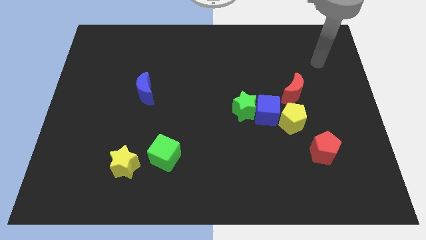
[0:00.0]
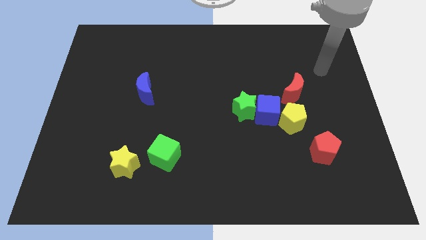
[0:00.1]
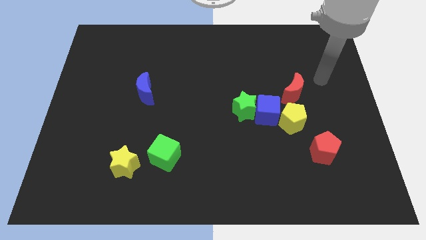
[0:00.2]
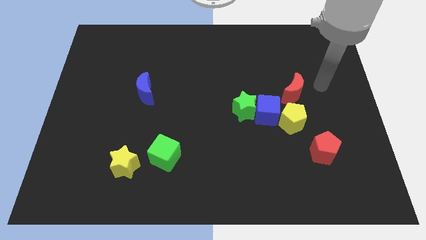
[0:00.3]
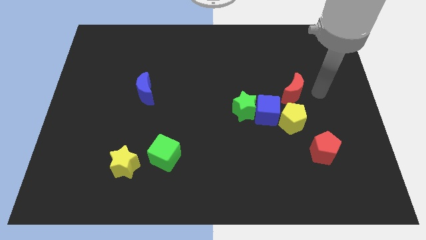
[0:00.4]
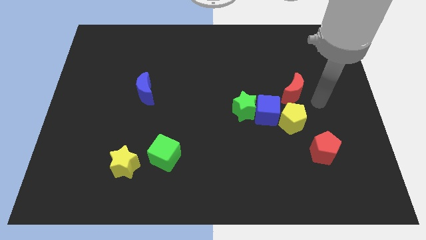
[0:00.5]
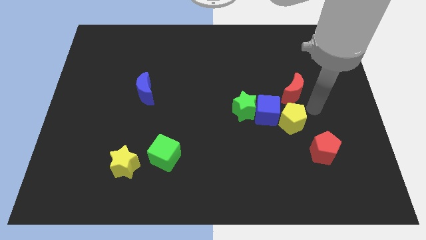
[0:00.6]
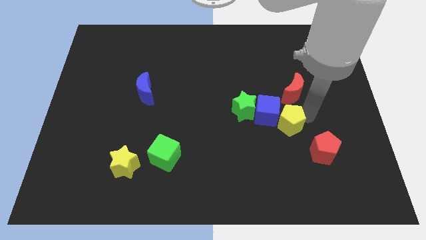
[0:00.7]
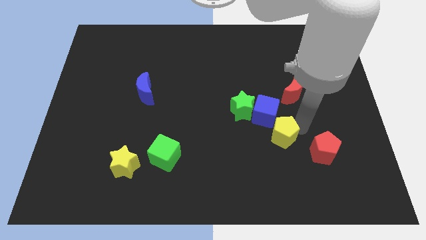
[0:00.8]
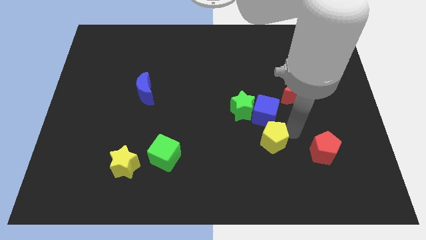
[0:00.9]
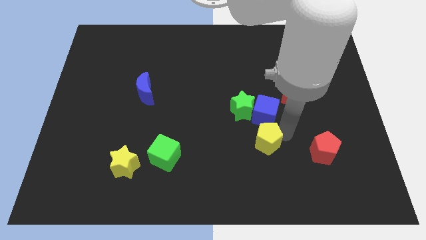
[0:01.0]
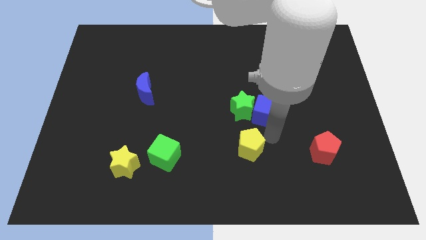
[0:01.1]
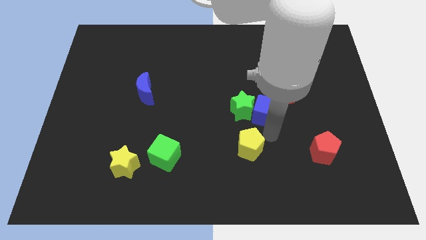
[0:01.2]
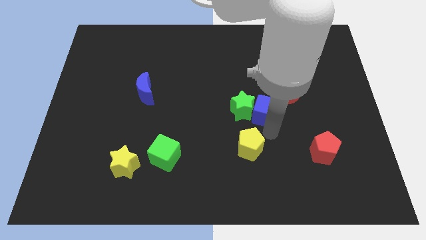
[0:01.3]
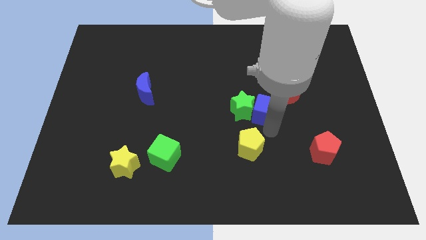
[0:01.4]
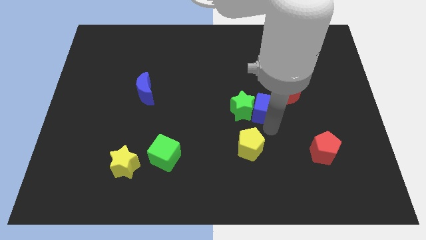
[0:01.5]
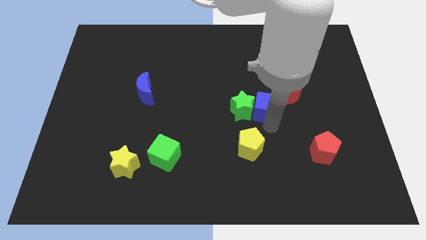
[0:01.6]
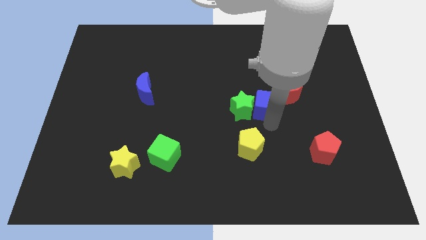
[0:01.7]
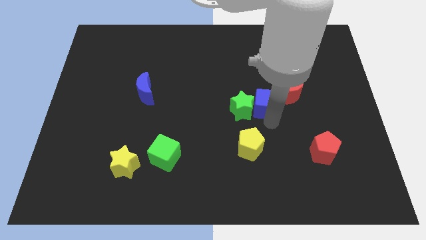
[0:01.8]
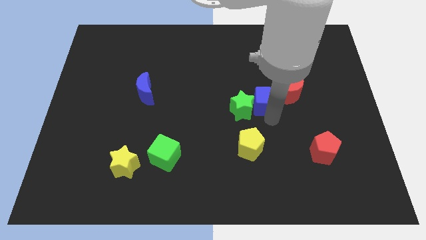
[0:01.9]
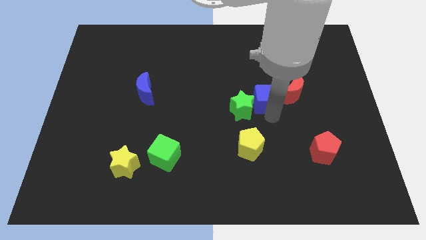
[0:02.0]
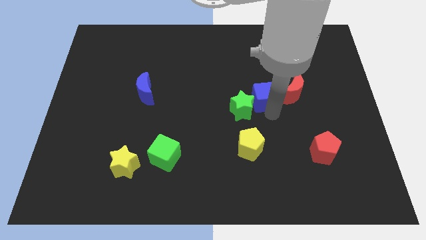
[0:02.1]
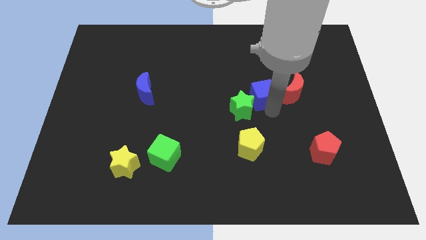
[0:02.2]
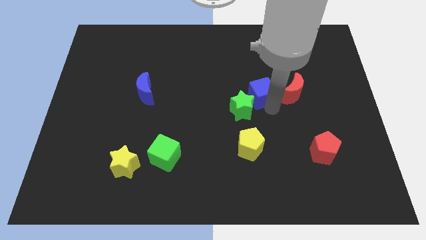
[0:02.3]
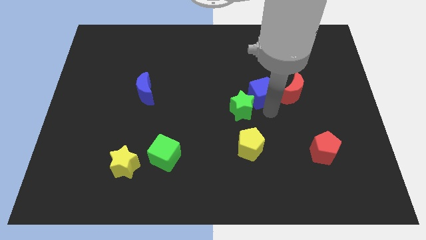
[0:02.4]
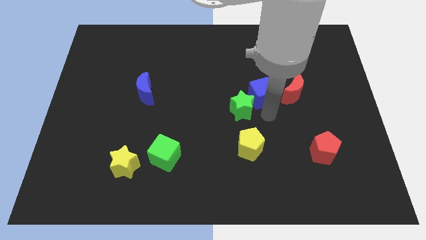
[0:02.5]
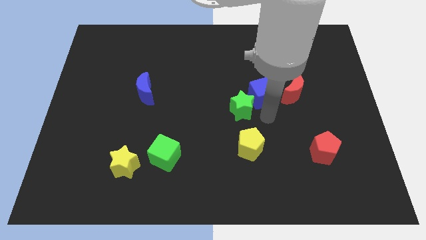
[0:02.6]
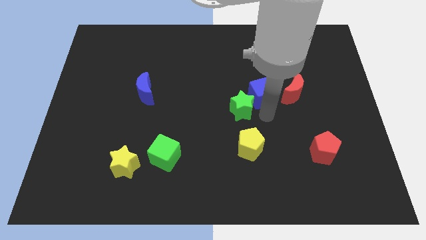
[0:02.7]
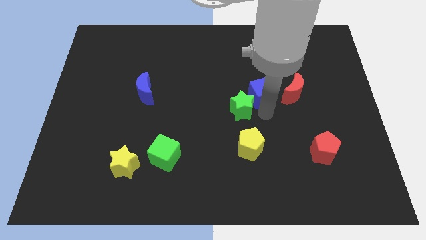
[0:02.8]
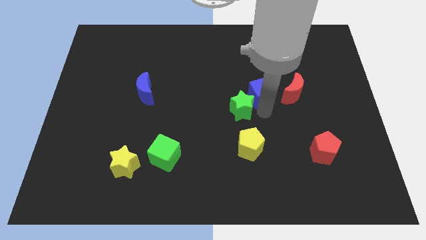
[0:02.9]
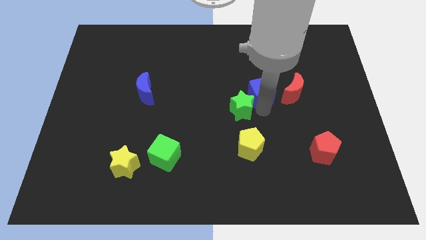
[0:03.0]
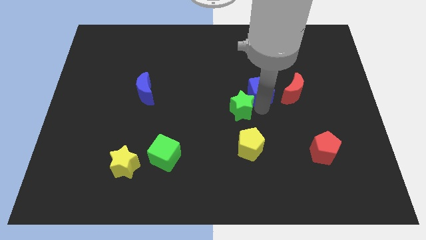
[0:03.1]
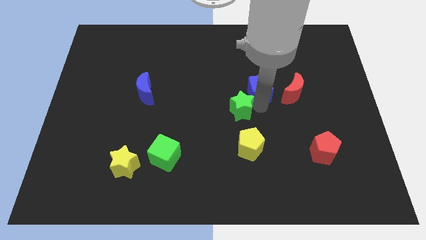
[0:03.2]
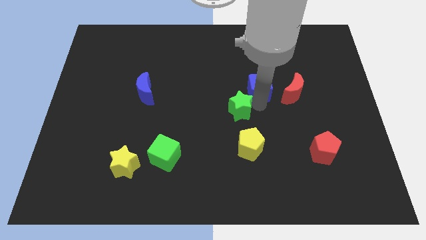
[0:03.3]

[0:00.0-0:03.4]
slide the blue cube a little upwards

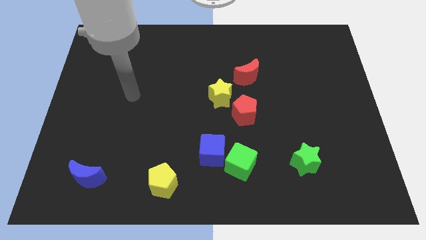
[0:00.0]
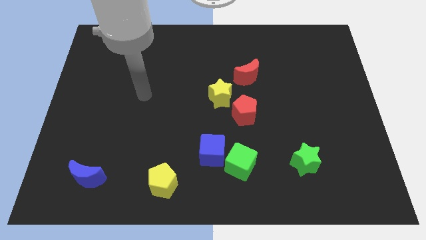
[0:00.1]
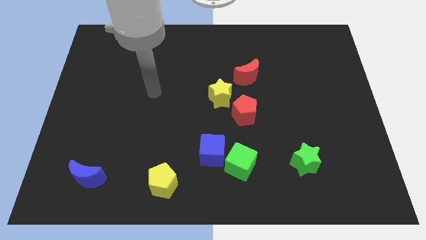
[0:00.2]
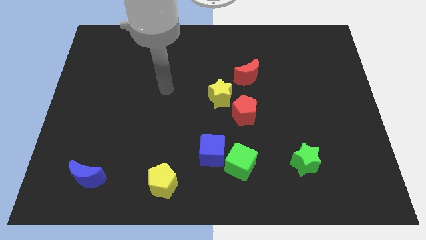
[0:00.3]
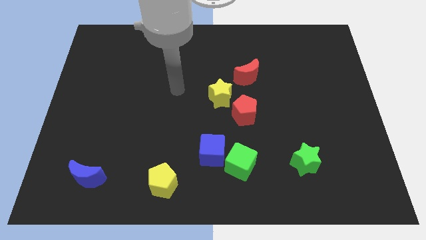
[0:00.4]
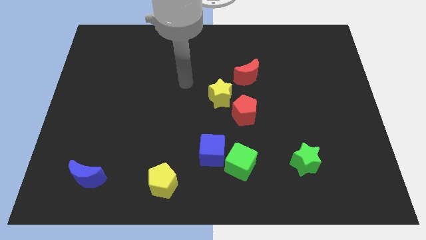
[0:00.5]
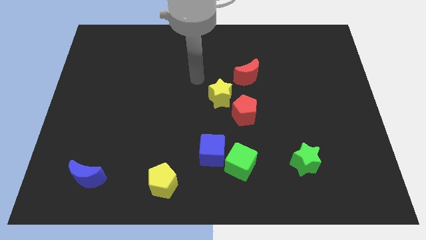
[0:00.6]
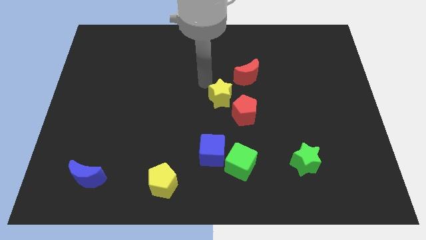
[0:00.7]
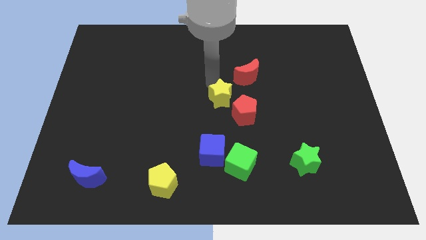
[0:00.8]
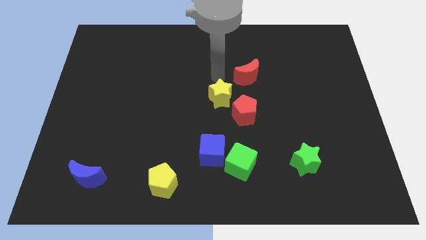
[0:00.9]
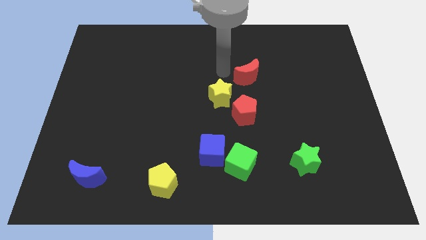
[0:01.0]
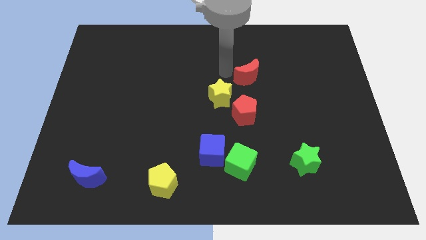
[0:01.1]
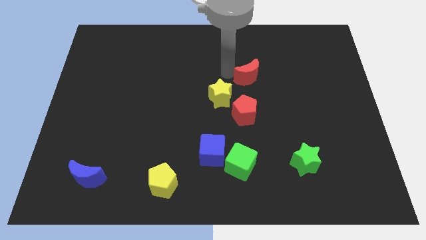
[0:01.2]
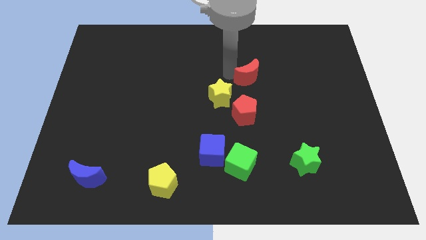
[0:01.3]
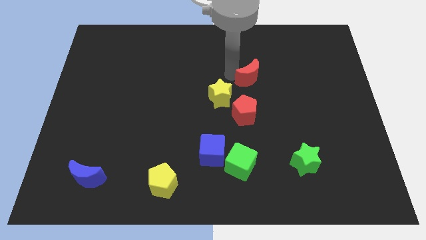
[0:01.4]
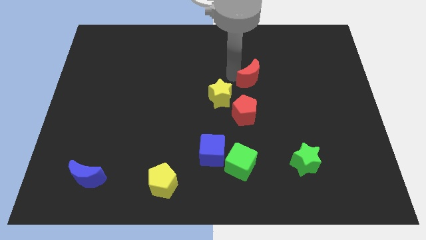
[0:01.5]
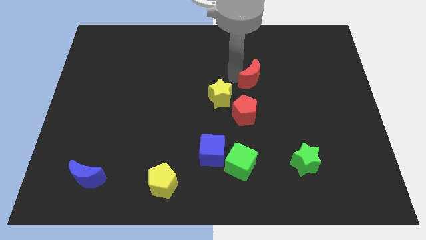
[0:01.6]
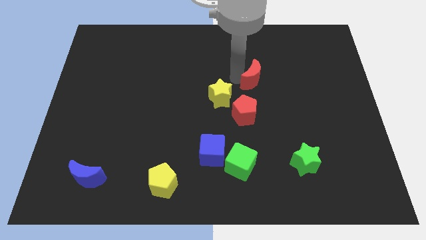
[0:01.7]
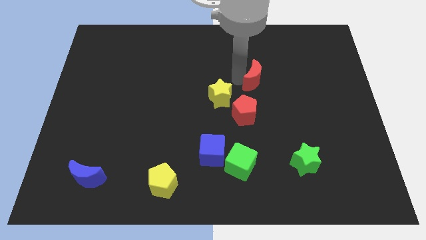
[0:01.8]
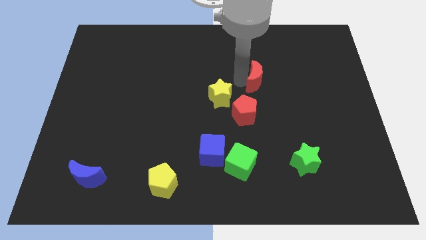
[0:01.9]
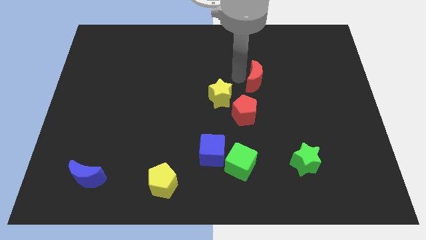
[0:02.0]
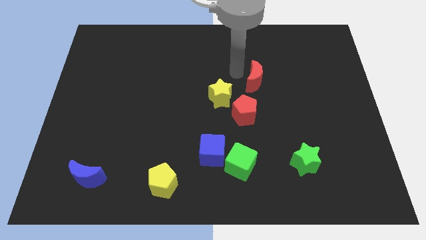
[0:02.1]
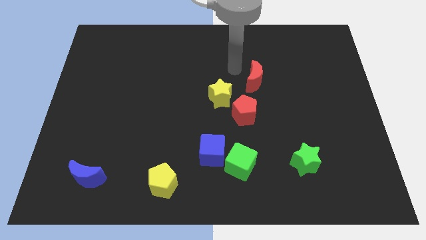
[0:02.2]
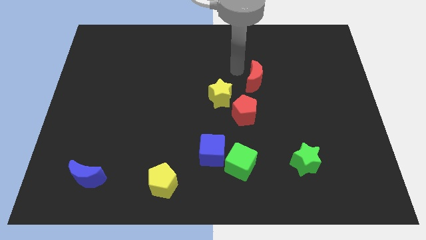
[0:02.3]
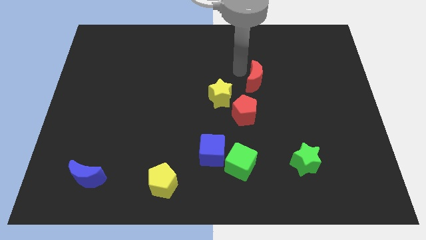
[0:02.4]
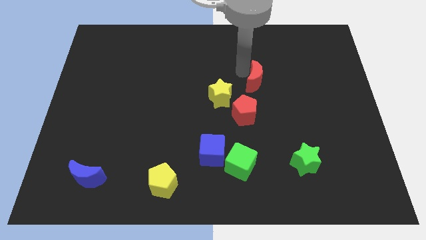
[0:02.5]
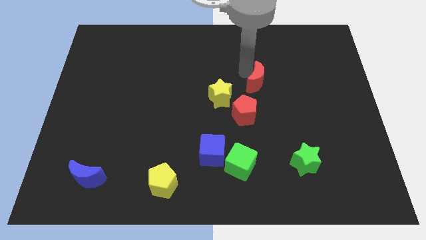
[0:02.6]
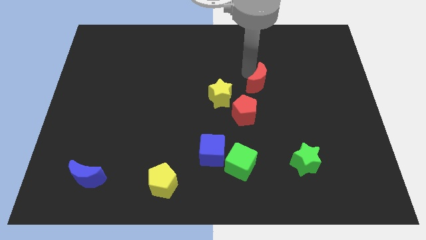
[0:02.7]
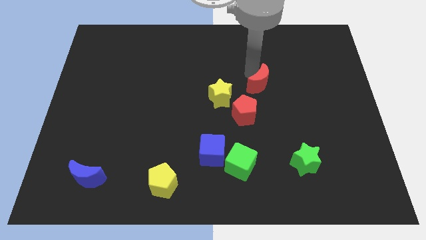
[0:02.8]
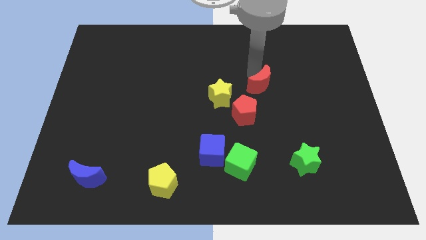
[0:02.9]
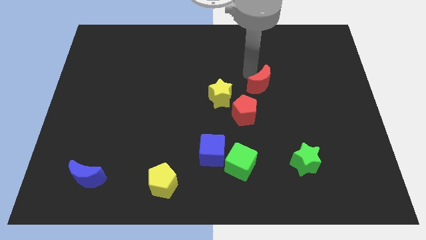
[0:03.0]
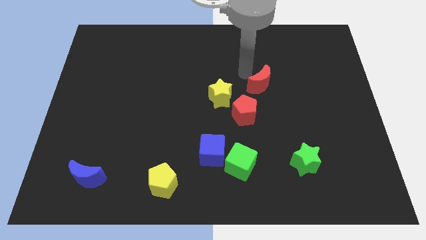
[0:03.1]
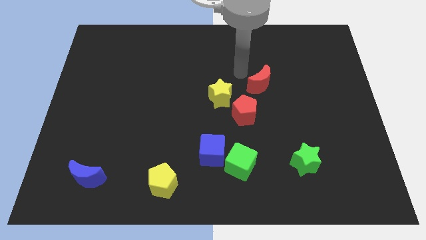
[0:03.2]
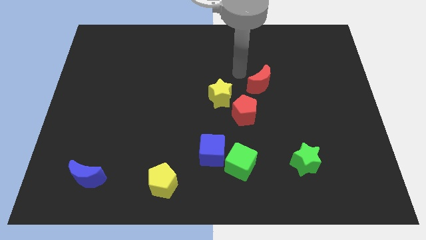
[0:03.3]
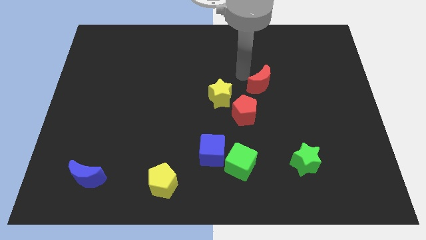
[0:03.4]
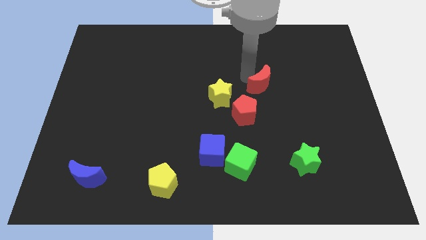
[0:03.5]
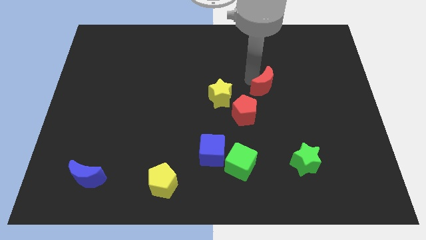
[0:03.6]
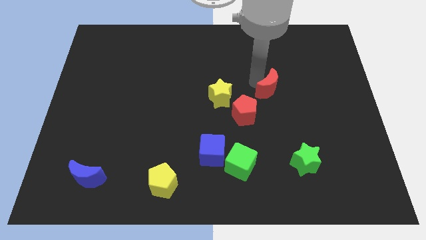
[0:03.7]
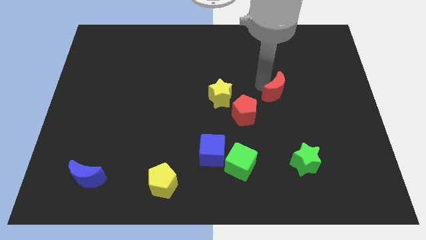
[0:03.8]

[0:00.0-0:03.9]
slide the red moon somewhat downwards and to the right diagonally

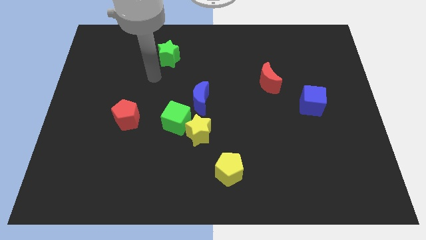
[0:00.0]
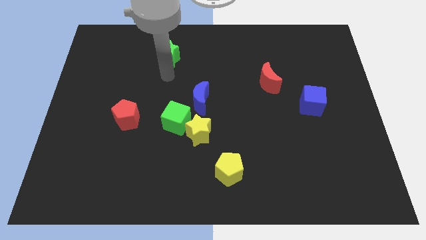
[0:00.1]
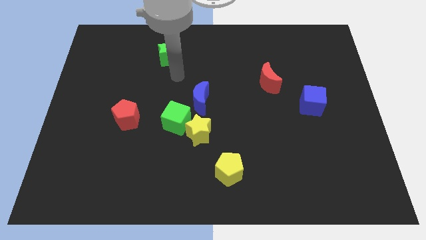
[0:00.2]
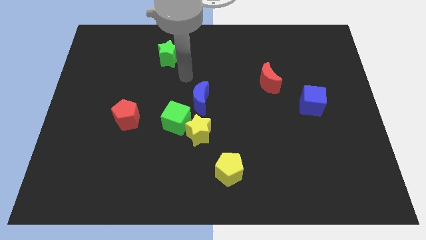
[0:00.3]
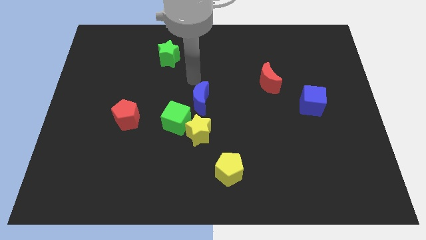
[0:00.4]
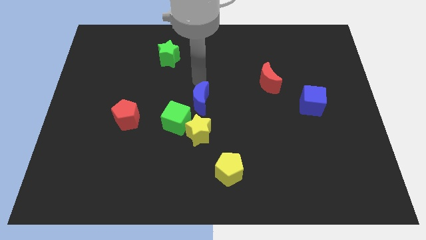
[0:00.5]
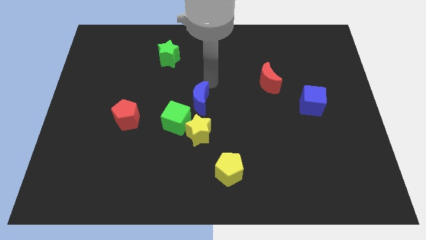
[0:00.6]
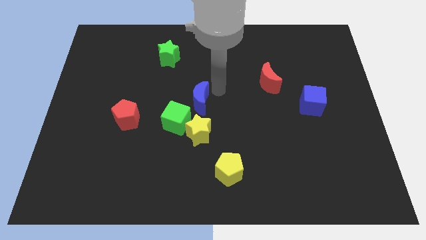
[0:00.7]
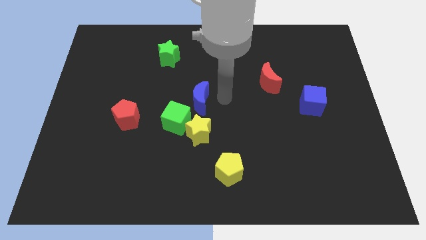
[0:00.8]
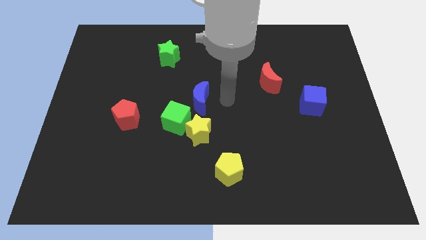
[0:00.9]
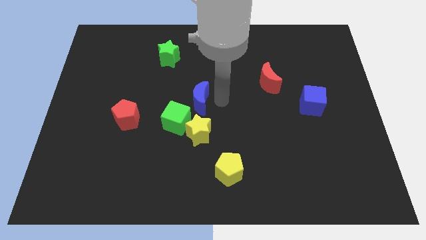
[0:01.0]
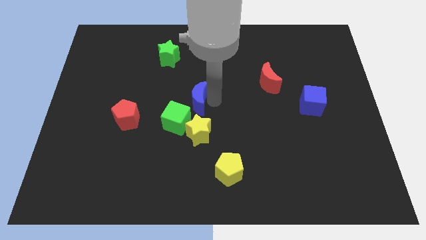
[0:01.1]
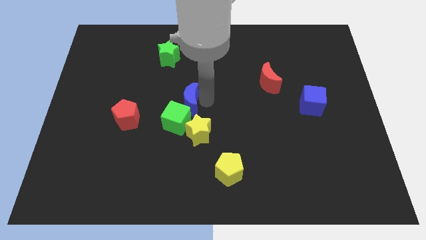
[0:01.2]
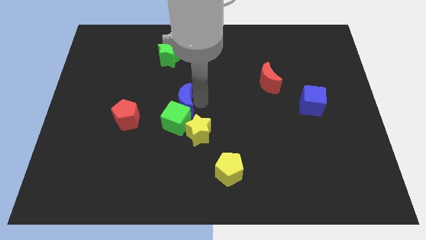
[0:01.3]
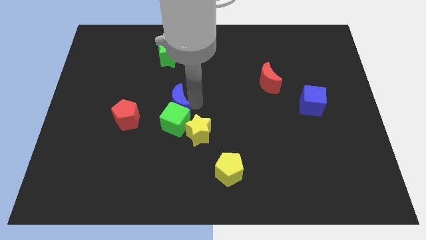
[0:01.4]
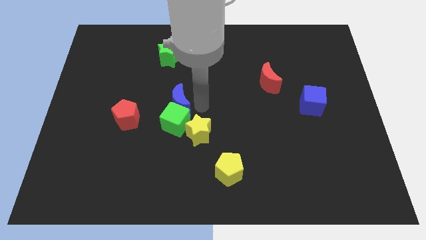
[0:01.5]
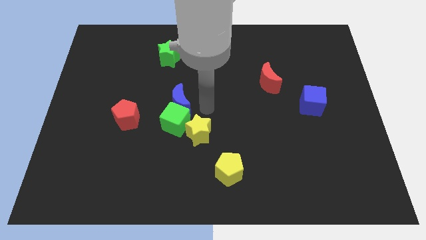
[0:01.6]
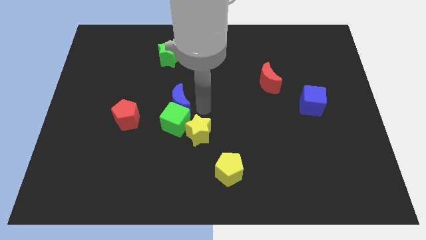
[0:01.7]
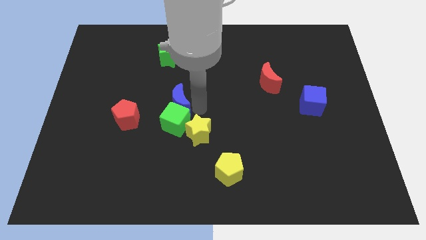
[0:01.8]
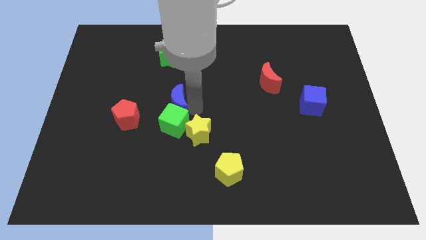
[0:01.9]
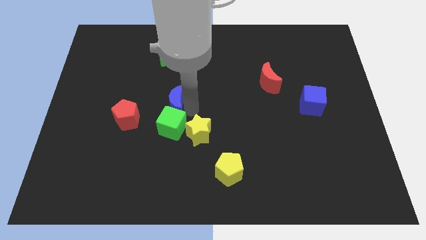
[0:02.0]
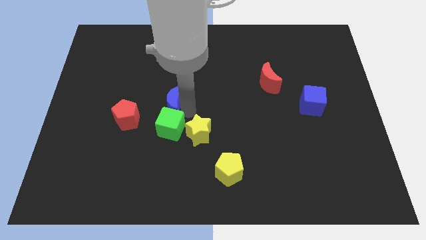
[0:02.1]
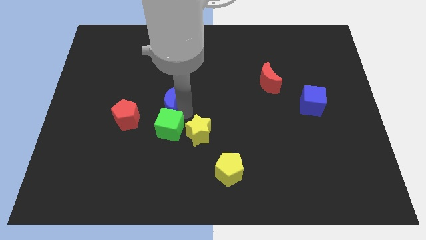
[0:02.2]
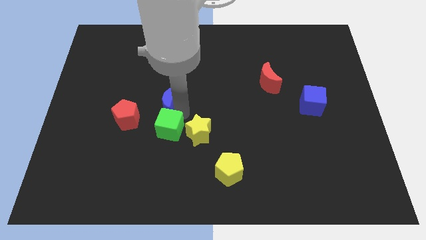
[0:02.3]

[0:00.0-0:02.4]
slide the blue moon left somewhat
